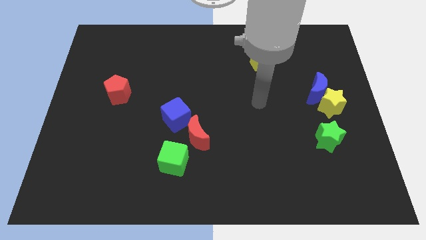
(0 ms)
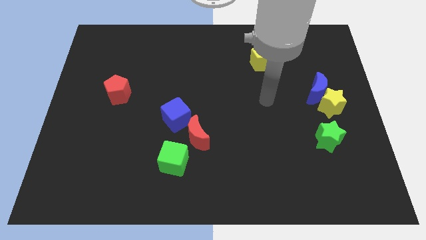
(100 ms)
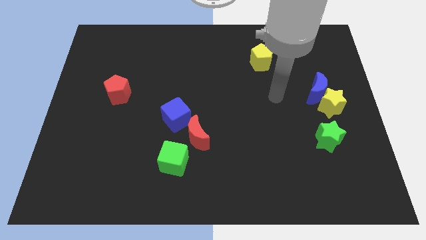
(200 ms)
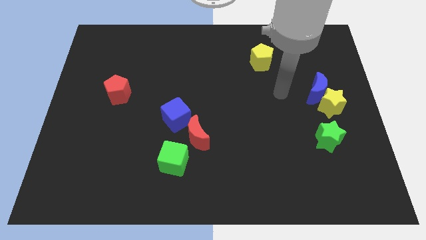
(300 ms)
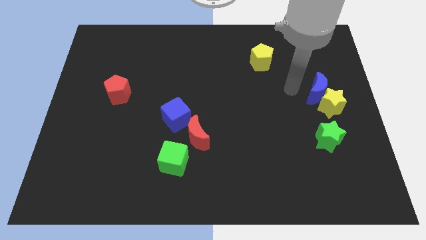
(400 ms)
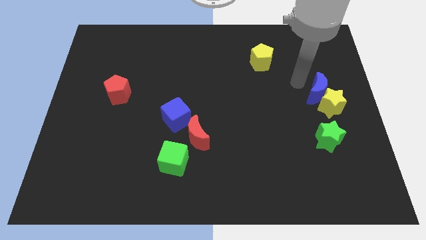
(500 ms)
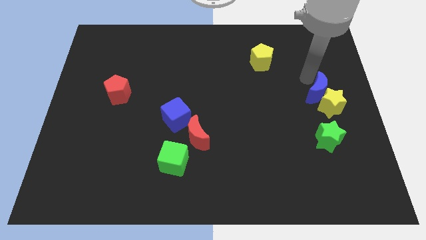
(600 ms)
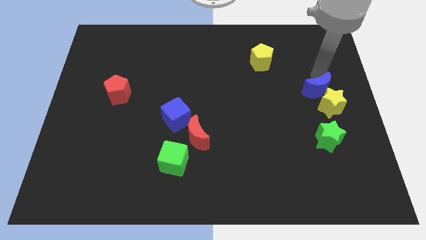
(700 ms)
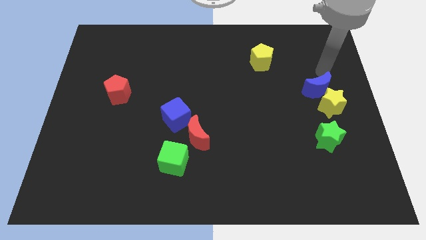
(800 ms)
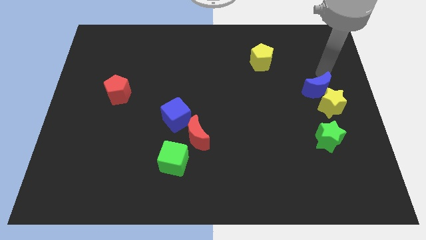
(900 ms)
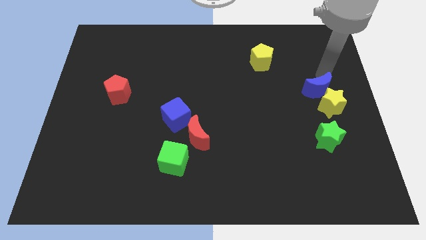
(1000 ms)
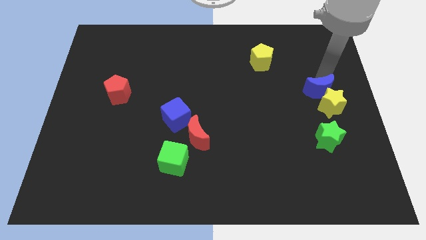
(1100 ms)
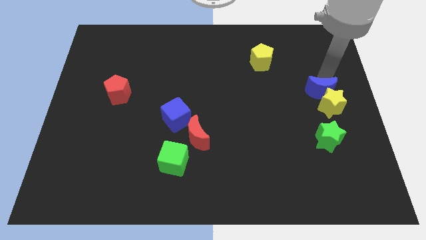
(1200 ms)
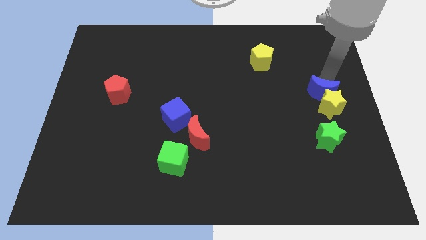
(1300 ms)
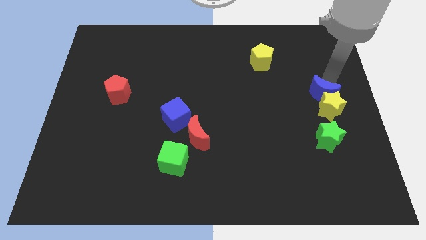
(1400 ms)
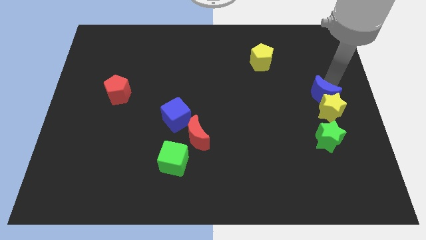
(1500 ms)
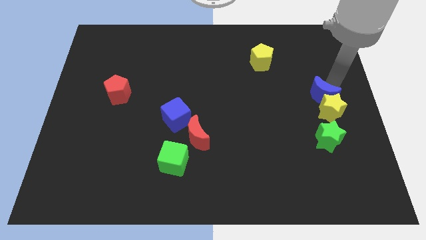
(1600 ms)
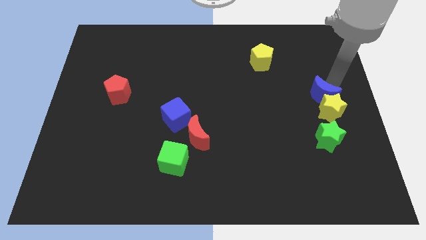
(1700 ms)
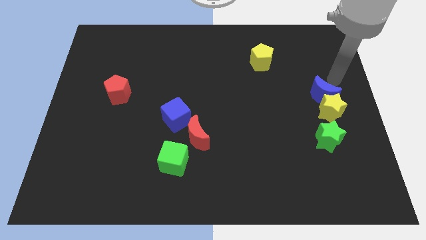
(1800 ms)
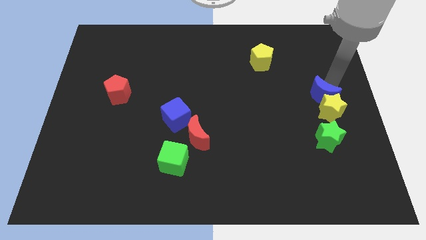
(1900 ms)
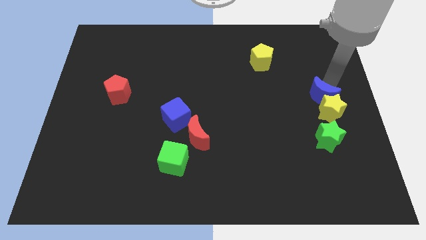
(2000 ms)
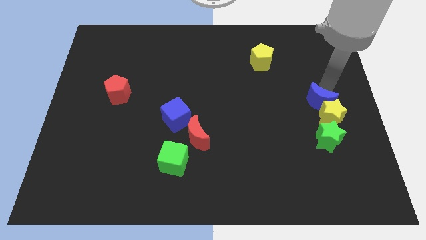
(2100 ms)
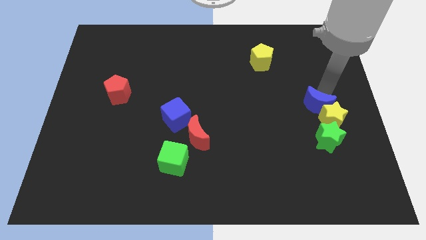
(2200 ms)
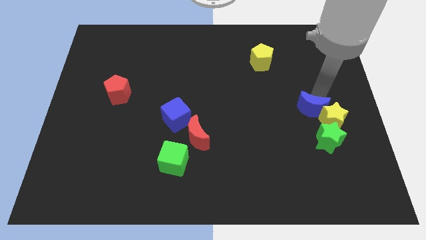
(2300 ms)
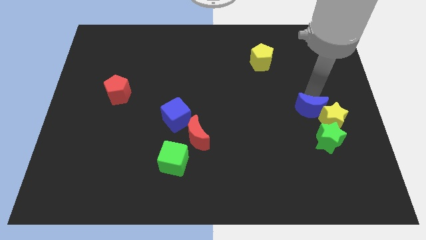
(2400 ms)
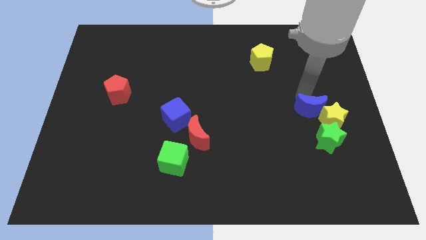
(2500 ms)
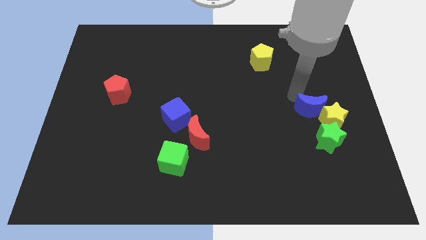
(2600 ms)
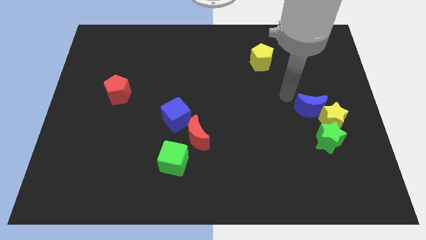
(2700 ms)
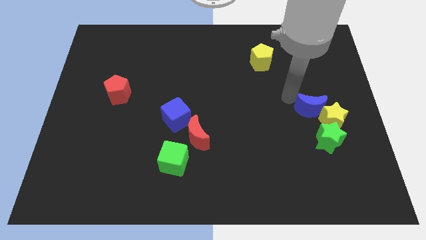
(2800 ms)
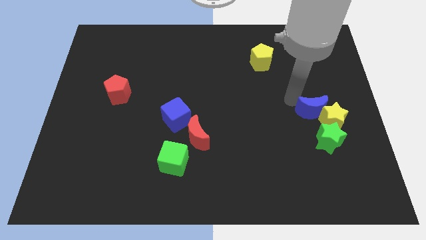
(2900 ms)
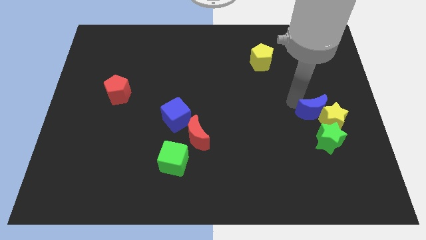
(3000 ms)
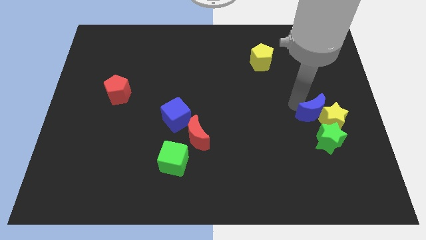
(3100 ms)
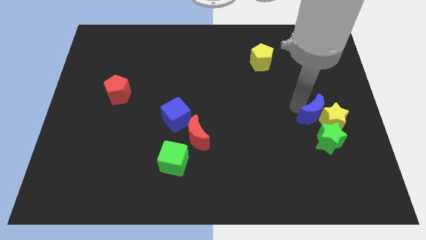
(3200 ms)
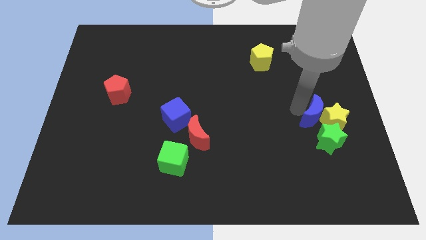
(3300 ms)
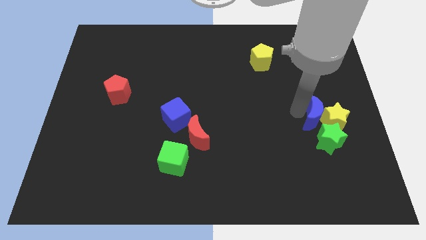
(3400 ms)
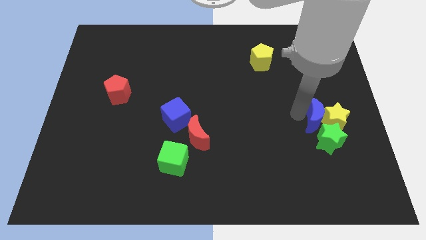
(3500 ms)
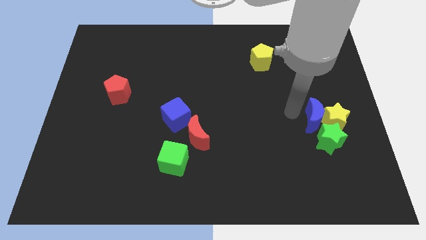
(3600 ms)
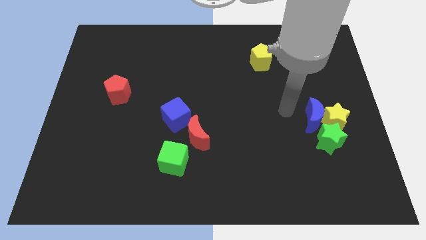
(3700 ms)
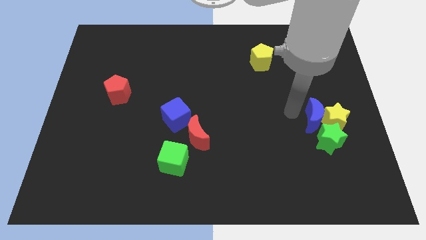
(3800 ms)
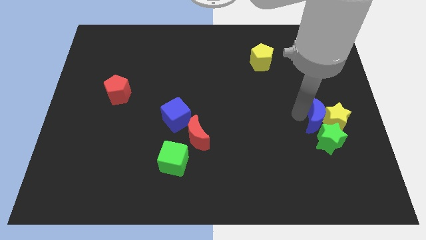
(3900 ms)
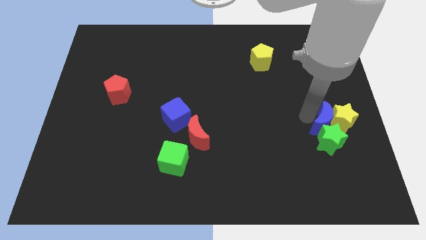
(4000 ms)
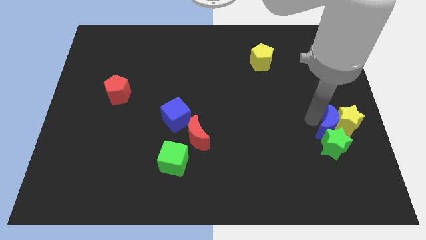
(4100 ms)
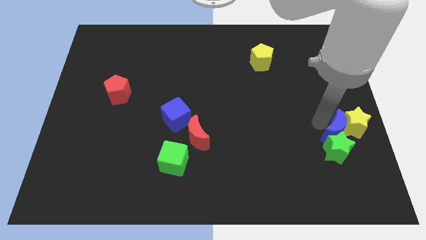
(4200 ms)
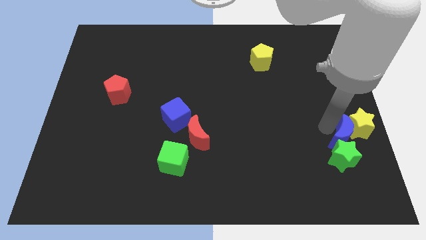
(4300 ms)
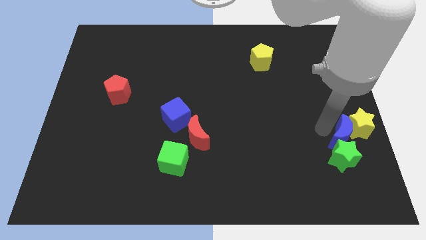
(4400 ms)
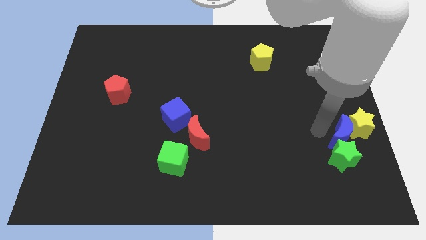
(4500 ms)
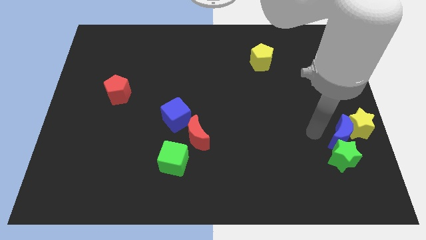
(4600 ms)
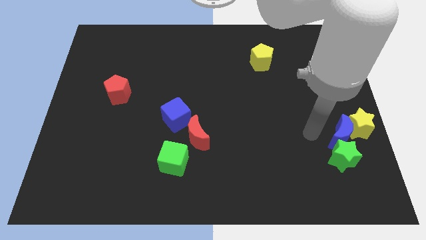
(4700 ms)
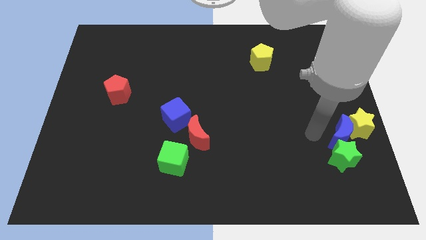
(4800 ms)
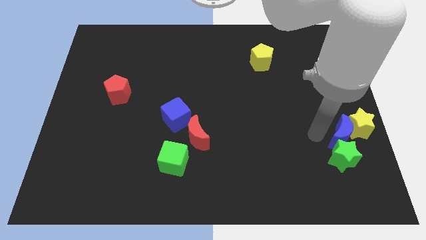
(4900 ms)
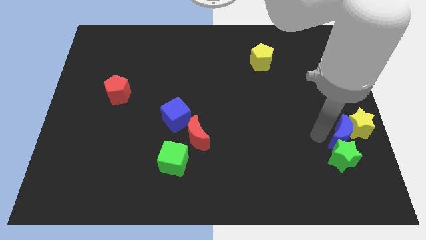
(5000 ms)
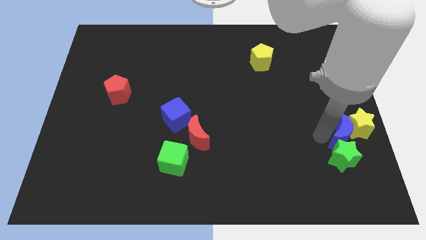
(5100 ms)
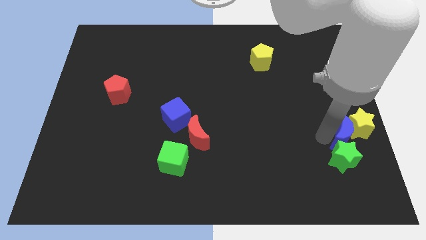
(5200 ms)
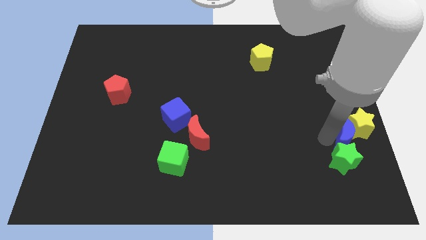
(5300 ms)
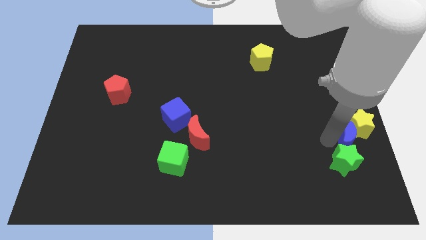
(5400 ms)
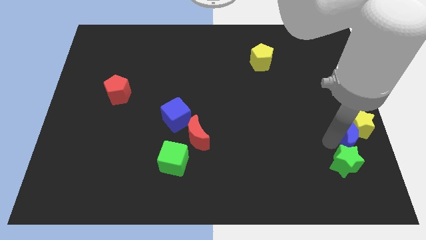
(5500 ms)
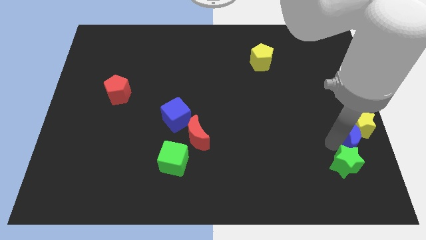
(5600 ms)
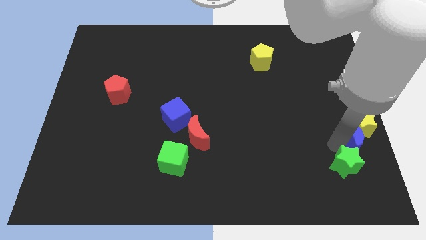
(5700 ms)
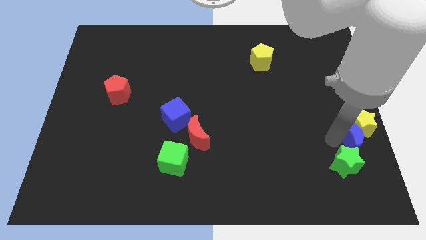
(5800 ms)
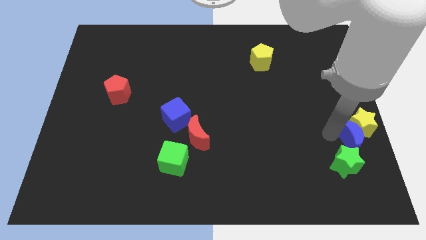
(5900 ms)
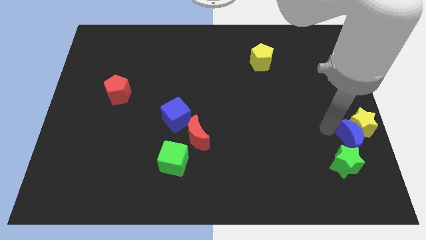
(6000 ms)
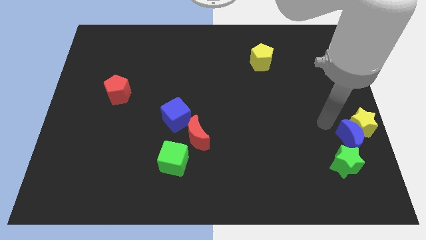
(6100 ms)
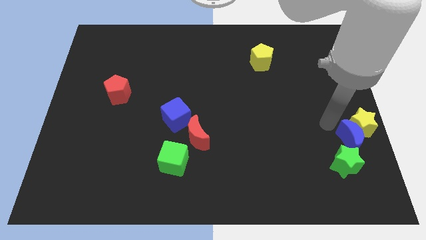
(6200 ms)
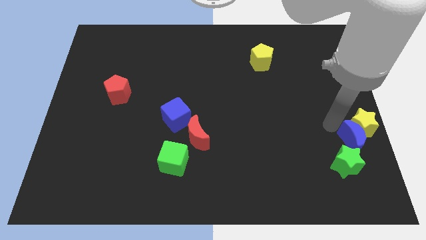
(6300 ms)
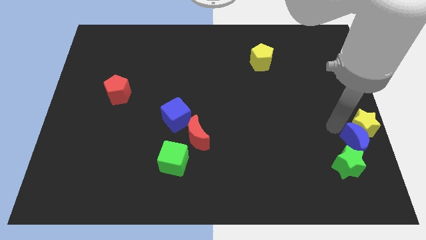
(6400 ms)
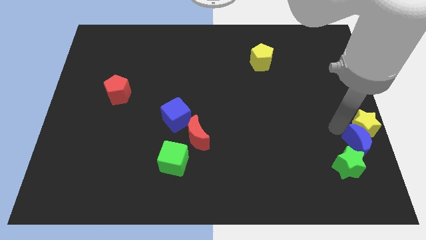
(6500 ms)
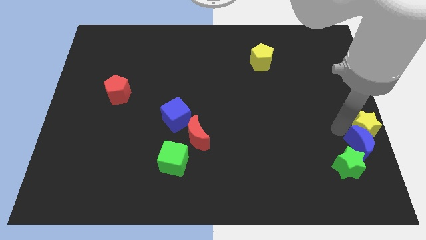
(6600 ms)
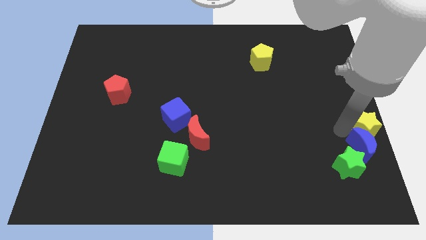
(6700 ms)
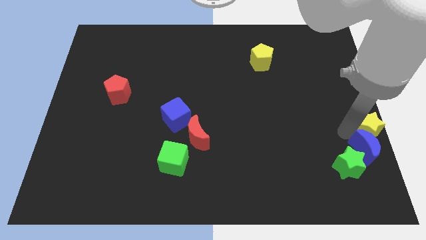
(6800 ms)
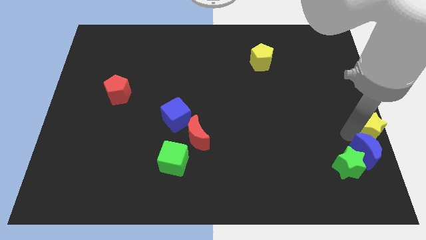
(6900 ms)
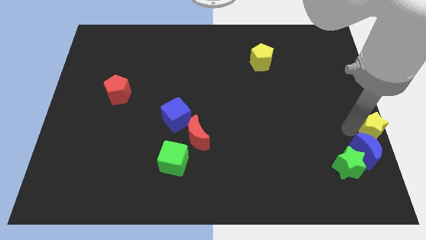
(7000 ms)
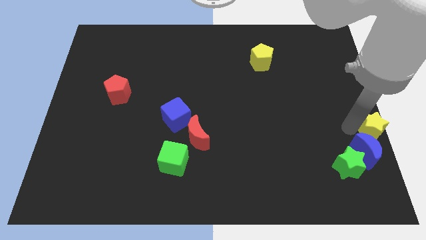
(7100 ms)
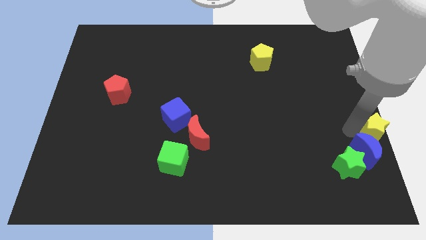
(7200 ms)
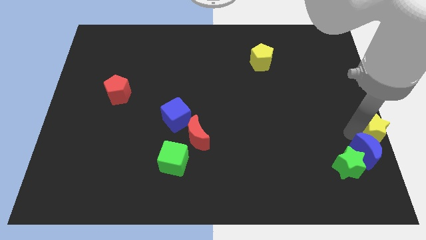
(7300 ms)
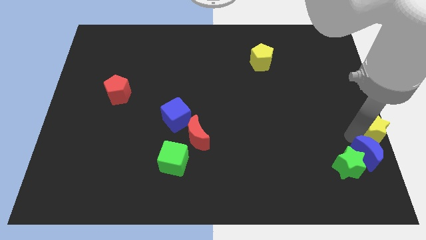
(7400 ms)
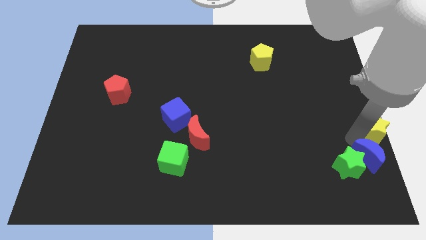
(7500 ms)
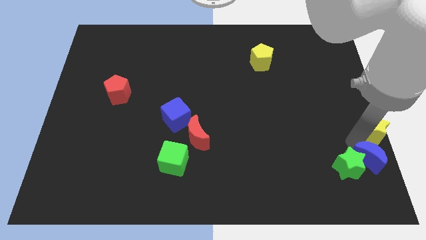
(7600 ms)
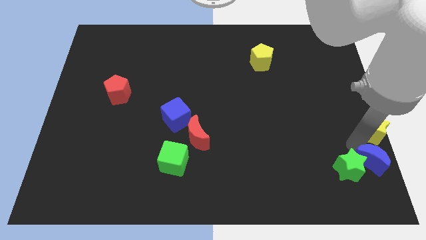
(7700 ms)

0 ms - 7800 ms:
put the blue moon to the lower right corner
